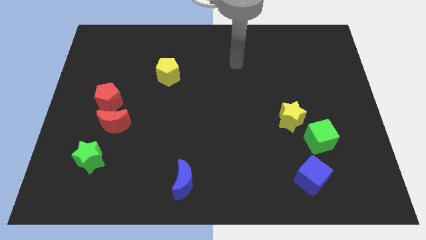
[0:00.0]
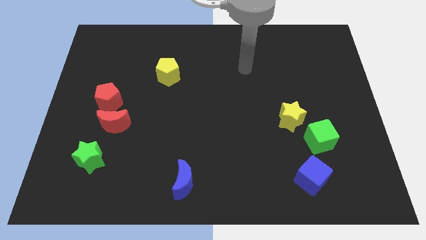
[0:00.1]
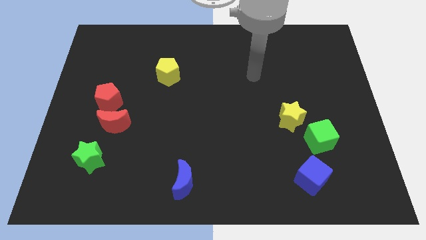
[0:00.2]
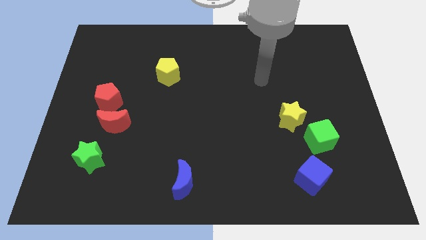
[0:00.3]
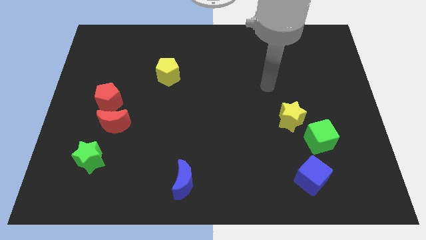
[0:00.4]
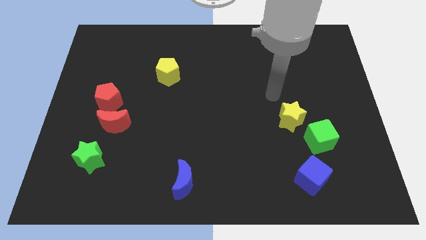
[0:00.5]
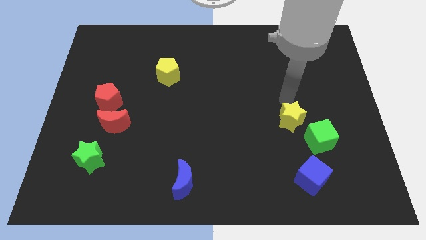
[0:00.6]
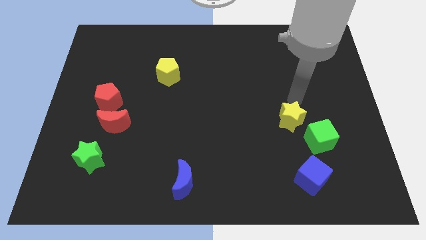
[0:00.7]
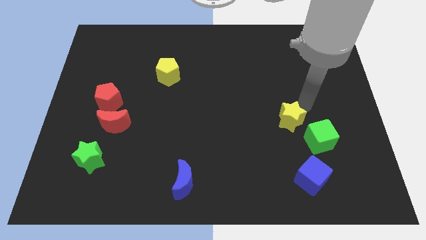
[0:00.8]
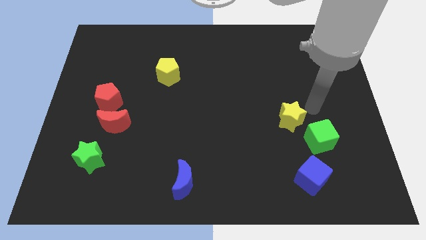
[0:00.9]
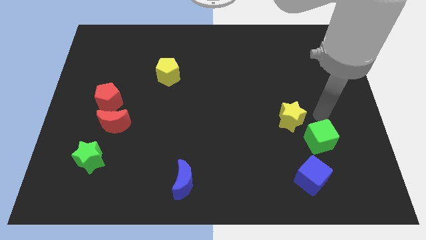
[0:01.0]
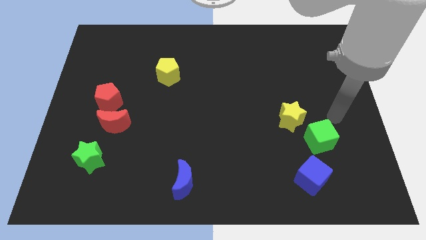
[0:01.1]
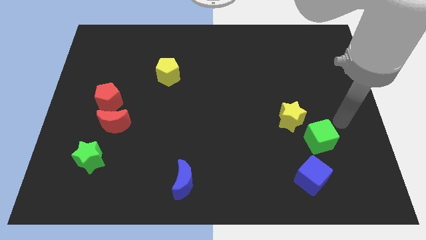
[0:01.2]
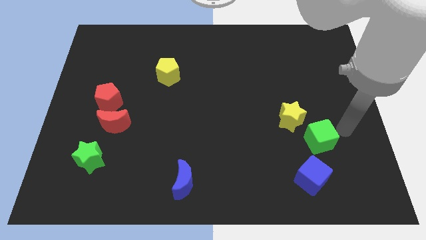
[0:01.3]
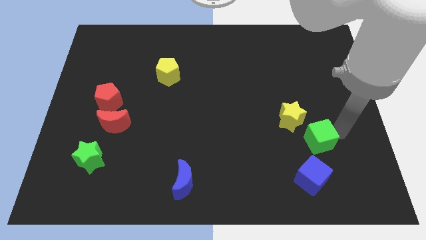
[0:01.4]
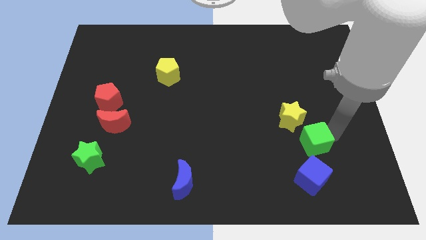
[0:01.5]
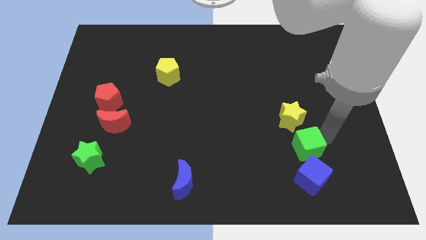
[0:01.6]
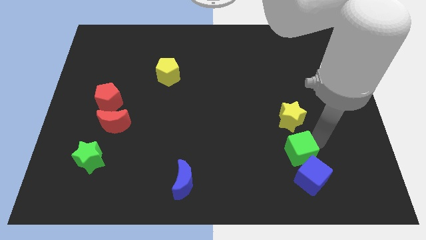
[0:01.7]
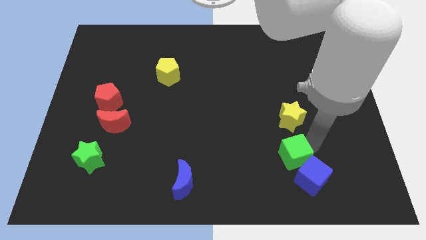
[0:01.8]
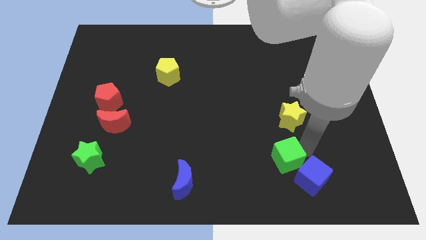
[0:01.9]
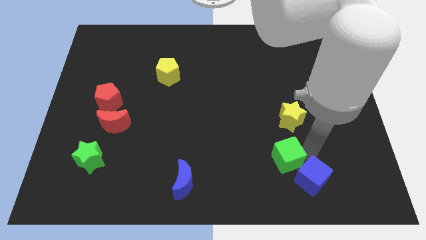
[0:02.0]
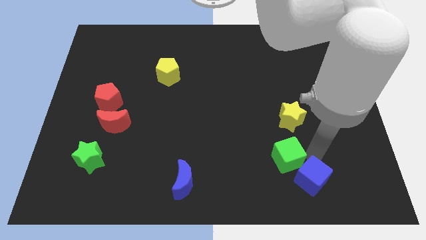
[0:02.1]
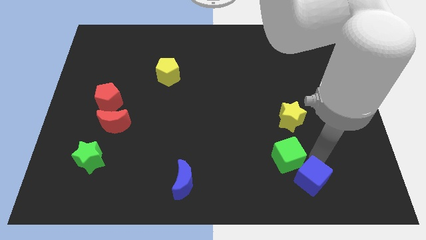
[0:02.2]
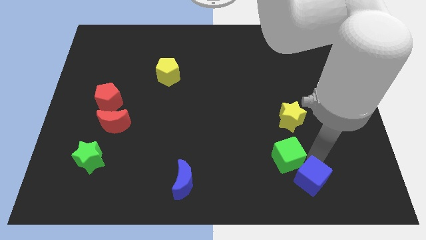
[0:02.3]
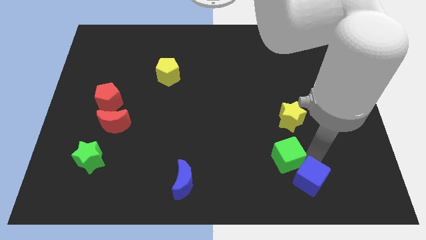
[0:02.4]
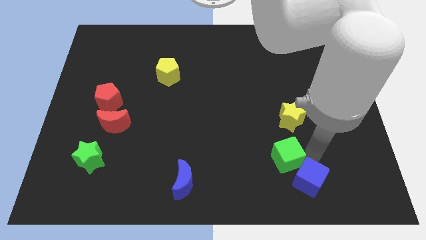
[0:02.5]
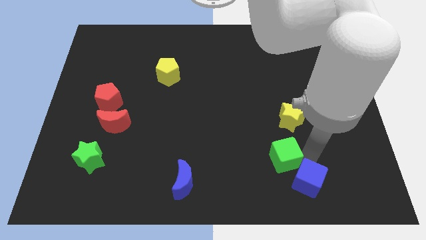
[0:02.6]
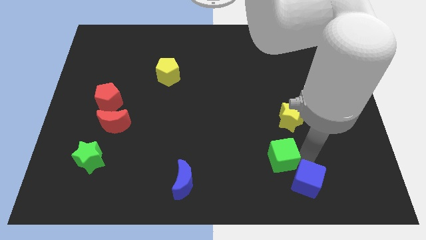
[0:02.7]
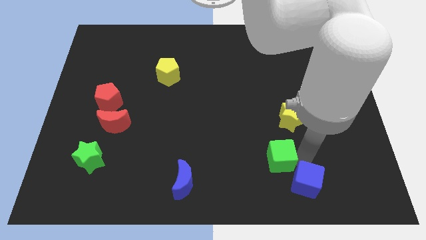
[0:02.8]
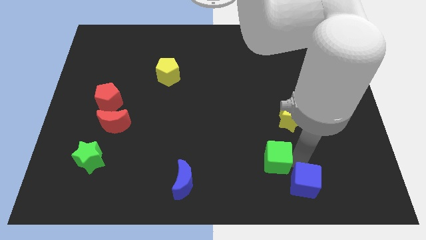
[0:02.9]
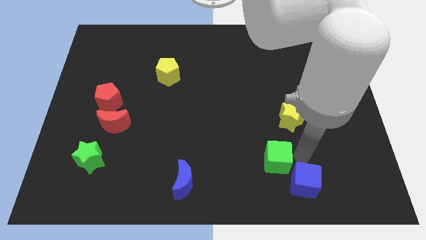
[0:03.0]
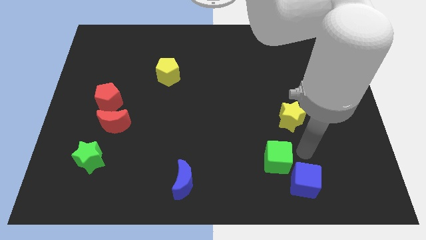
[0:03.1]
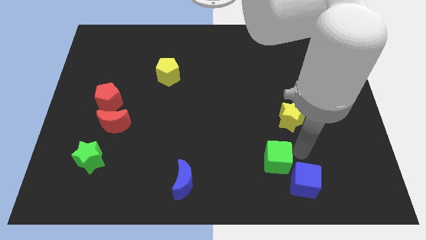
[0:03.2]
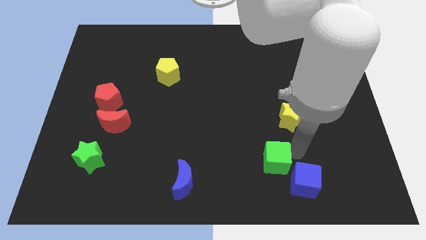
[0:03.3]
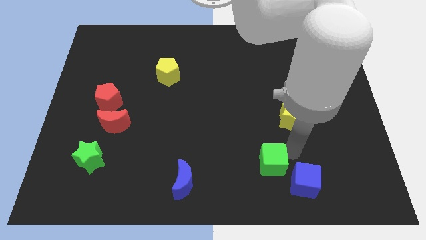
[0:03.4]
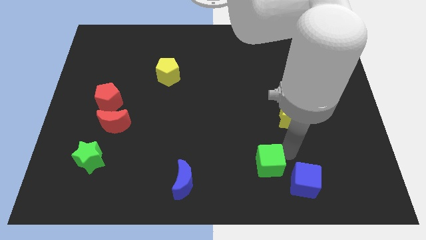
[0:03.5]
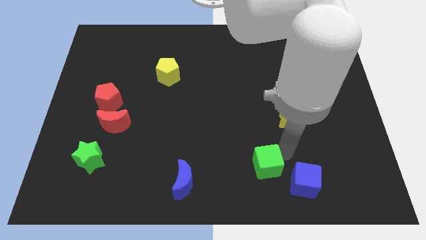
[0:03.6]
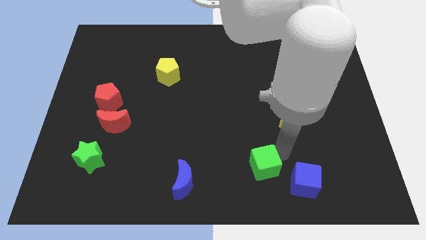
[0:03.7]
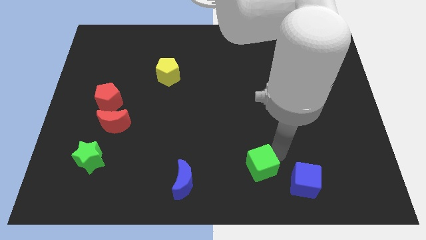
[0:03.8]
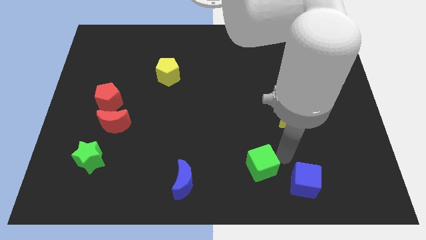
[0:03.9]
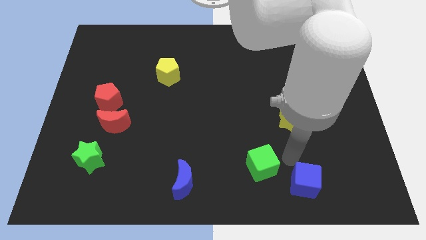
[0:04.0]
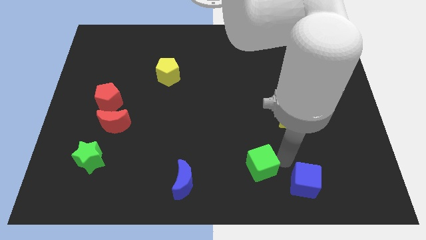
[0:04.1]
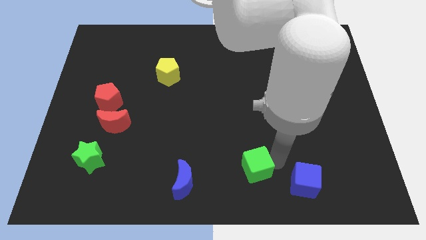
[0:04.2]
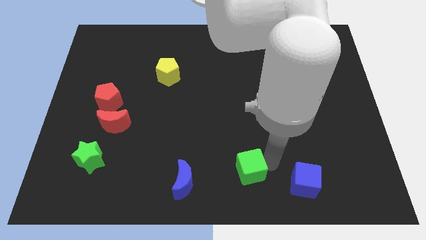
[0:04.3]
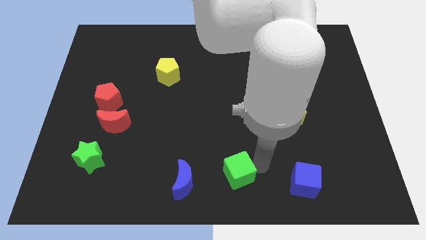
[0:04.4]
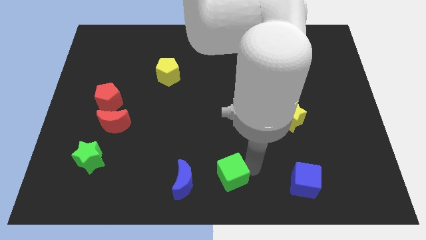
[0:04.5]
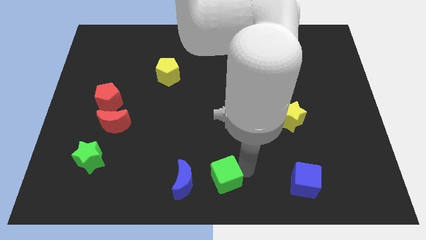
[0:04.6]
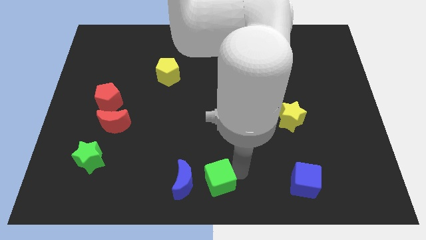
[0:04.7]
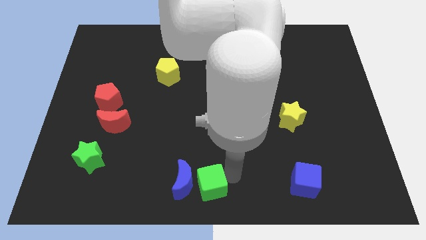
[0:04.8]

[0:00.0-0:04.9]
slide the green cube close to the blue moon

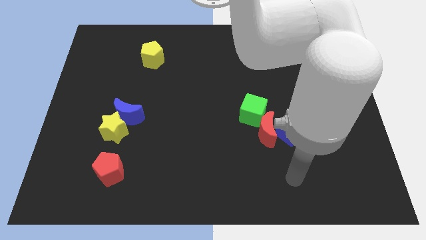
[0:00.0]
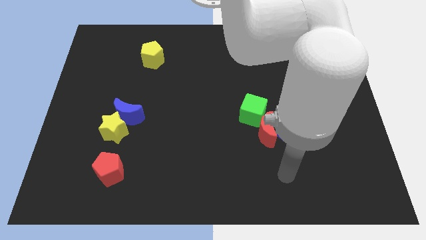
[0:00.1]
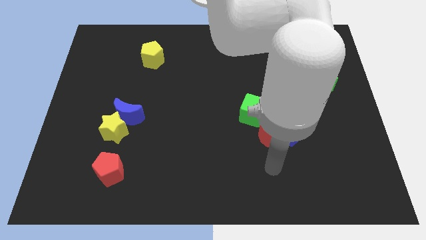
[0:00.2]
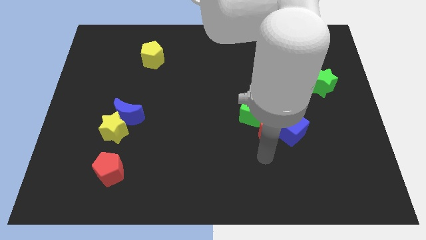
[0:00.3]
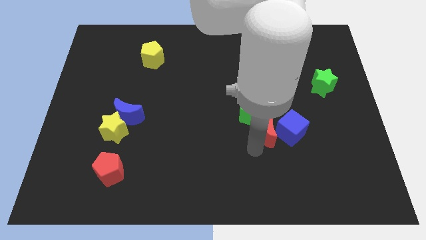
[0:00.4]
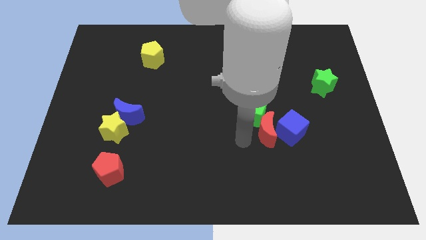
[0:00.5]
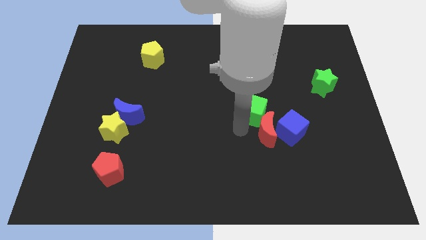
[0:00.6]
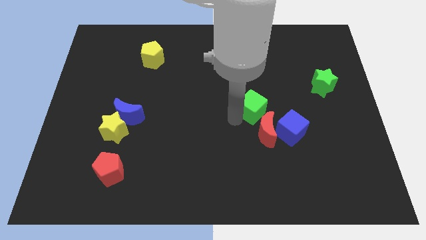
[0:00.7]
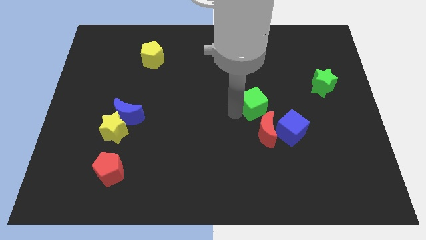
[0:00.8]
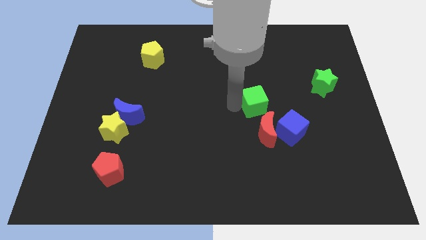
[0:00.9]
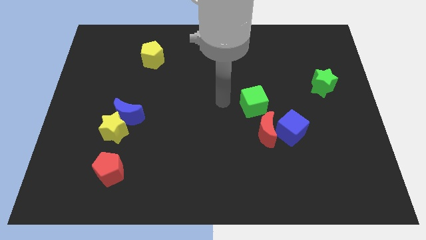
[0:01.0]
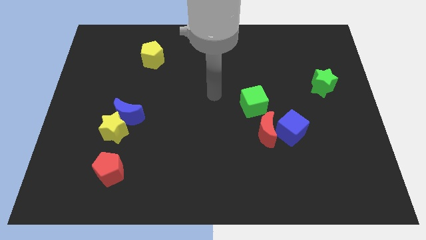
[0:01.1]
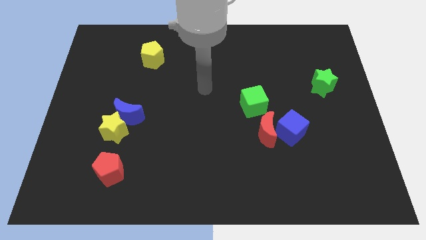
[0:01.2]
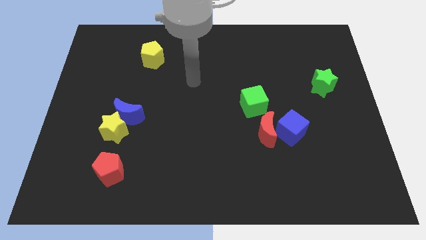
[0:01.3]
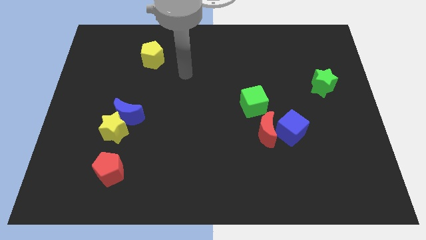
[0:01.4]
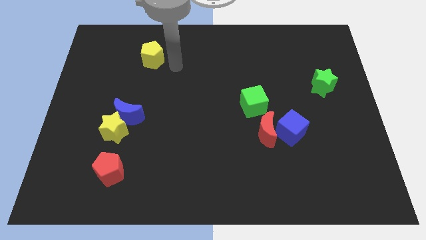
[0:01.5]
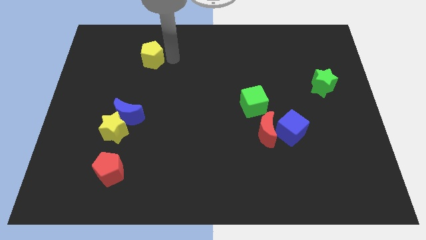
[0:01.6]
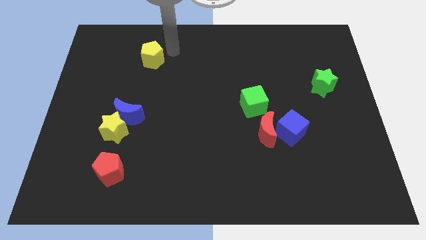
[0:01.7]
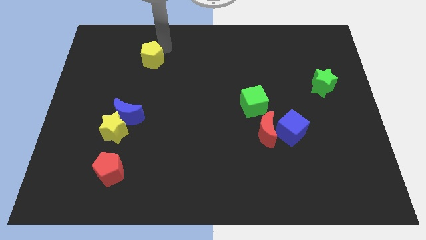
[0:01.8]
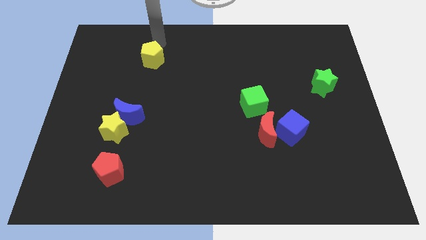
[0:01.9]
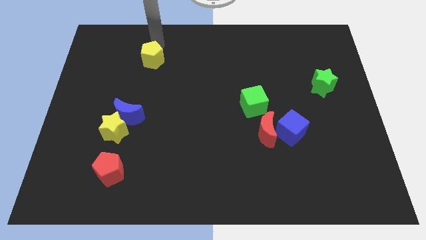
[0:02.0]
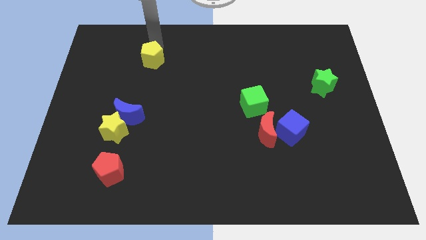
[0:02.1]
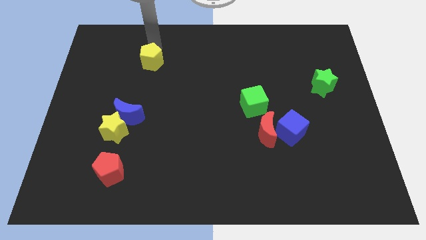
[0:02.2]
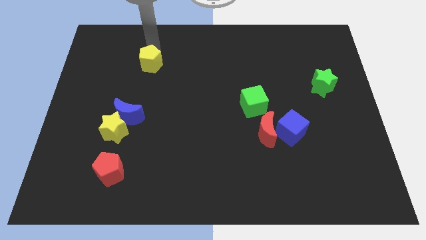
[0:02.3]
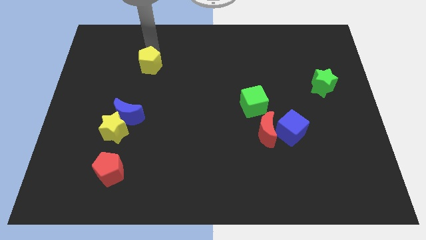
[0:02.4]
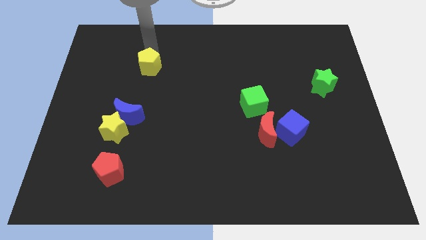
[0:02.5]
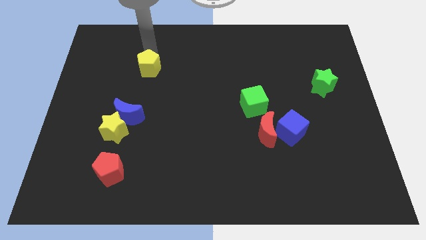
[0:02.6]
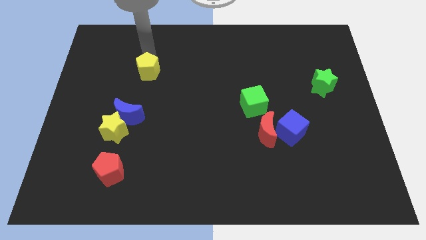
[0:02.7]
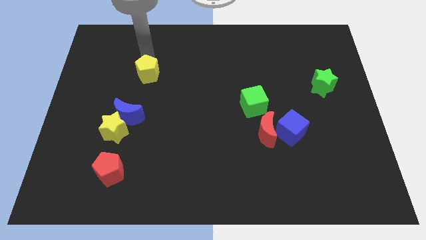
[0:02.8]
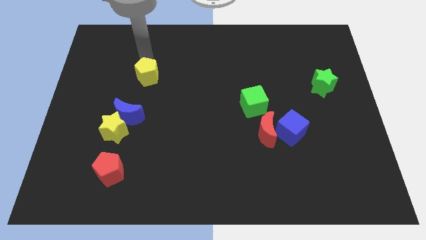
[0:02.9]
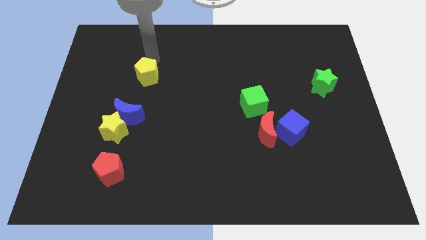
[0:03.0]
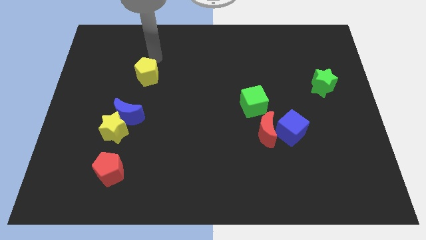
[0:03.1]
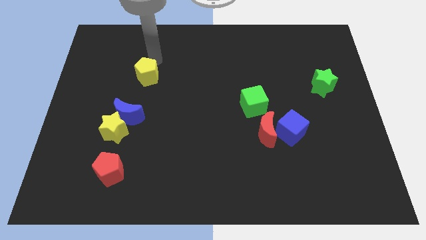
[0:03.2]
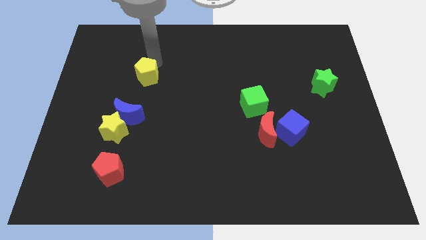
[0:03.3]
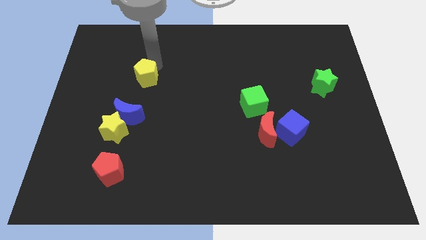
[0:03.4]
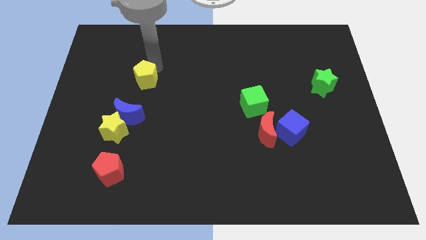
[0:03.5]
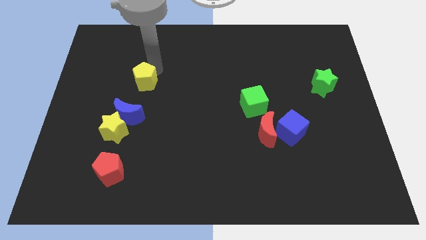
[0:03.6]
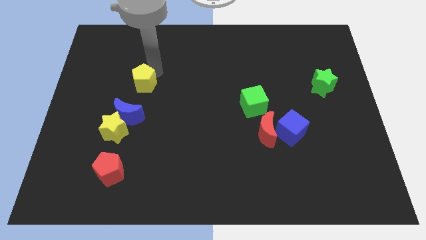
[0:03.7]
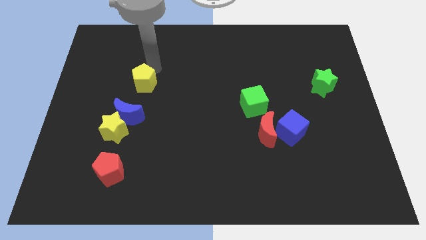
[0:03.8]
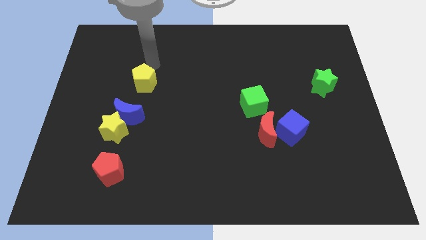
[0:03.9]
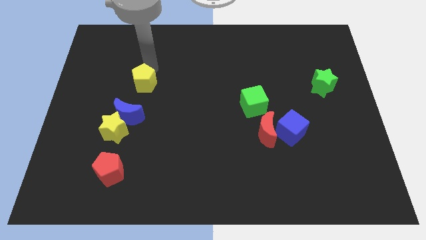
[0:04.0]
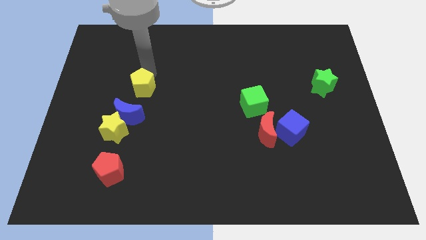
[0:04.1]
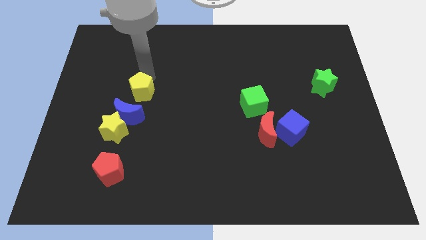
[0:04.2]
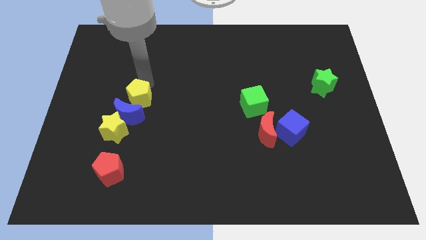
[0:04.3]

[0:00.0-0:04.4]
move the yellow pentagon to the blue moon
